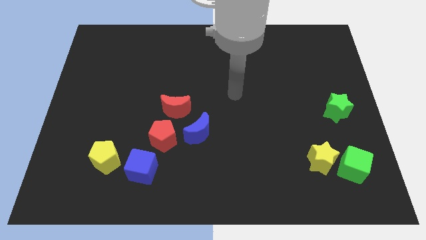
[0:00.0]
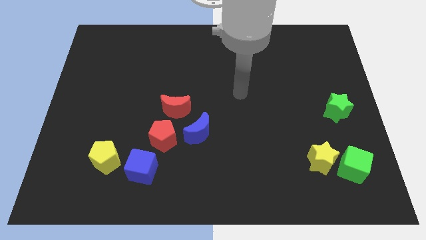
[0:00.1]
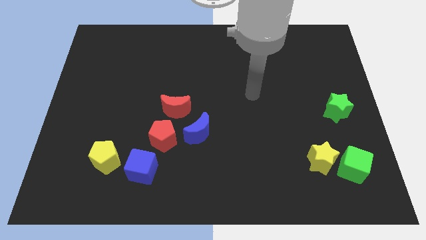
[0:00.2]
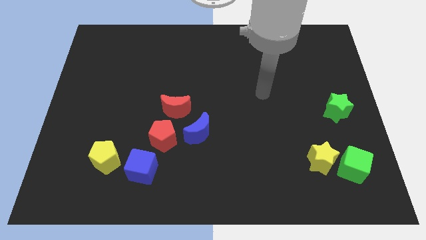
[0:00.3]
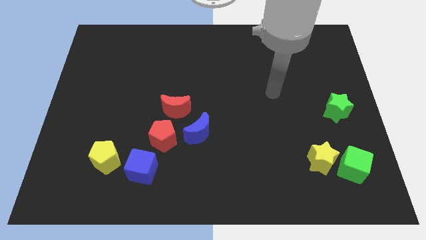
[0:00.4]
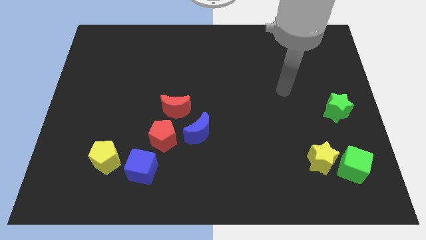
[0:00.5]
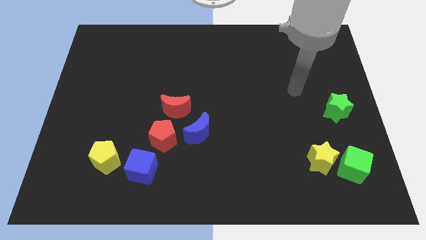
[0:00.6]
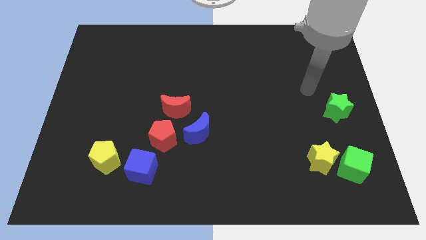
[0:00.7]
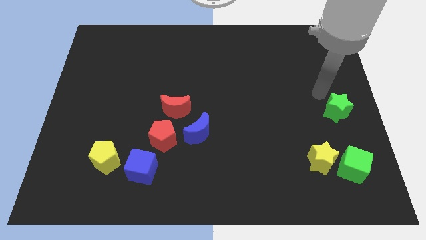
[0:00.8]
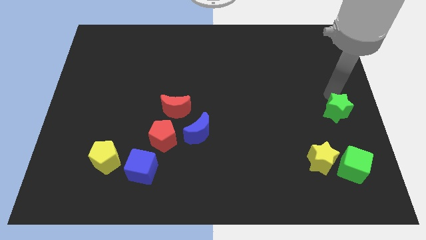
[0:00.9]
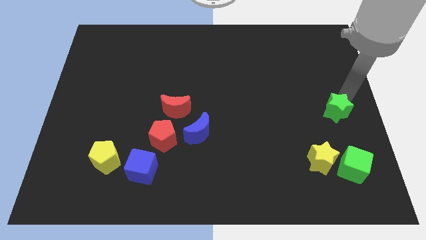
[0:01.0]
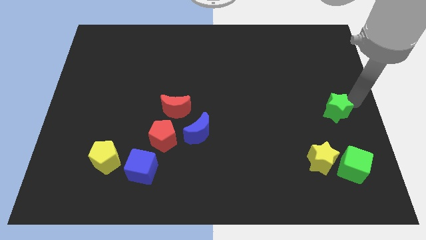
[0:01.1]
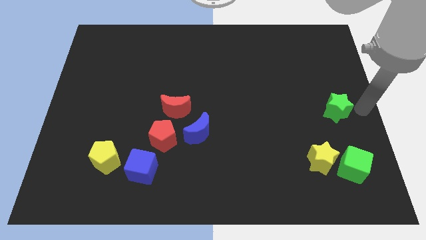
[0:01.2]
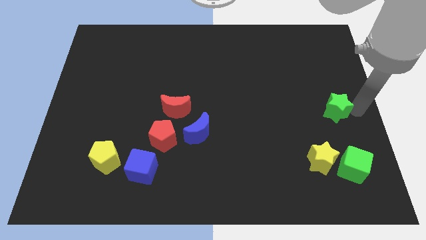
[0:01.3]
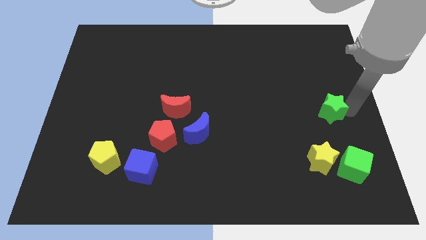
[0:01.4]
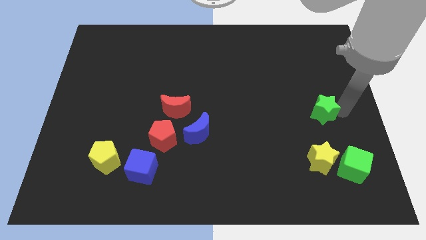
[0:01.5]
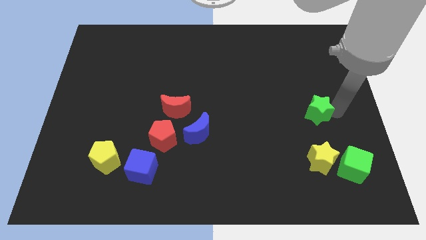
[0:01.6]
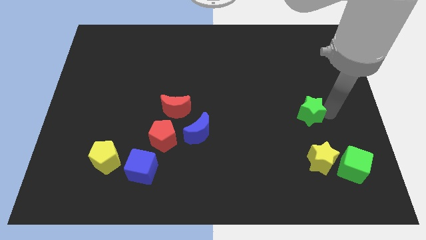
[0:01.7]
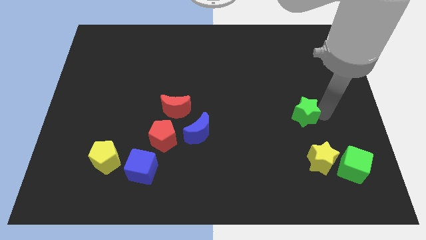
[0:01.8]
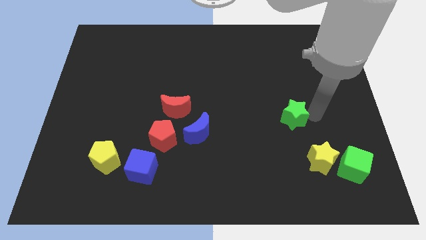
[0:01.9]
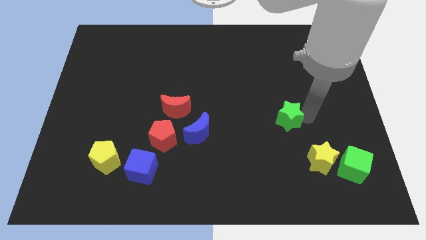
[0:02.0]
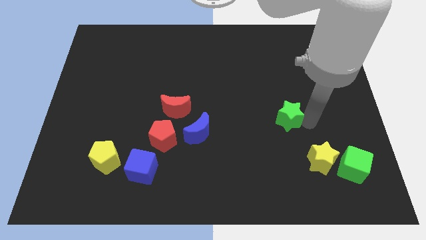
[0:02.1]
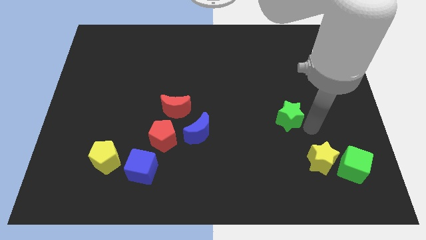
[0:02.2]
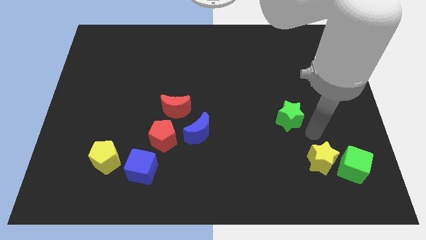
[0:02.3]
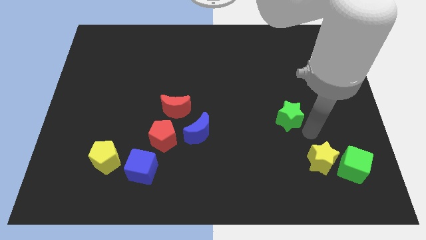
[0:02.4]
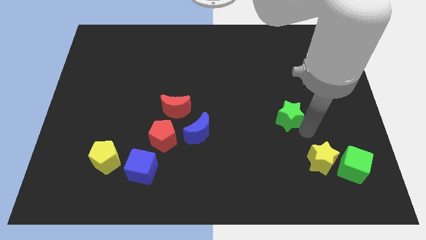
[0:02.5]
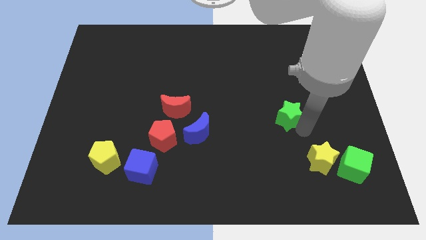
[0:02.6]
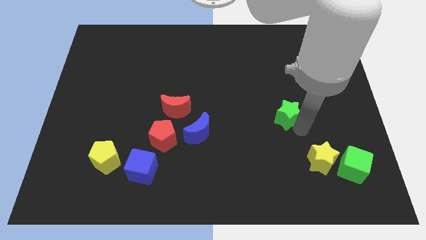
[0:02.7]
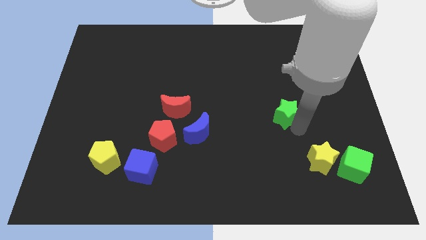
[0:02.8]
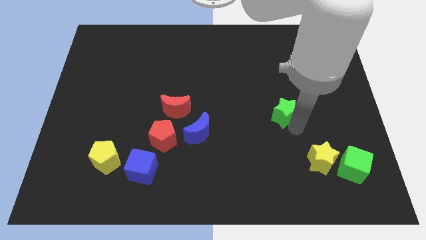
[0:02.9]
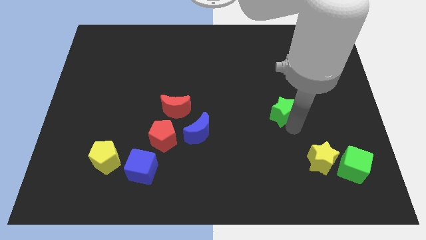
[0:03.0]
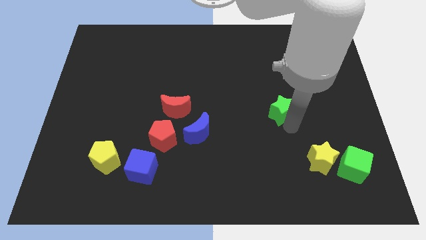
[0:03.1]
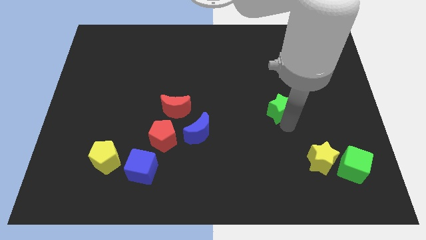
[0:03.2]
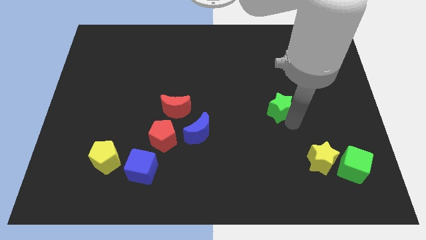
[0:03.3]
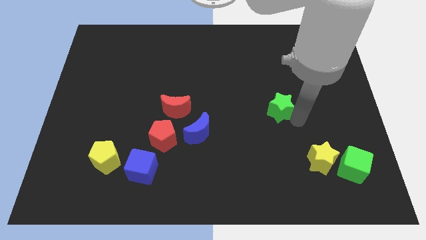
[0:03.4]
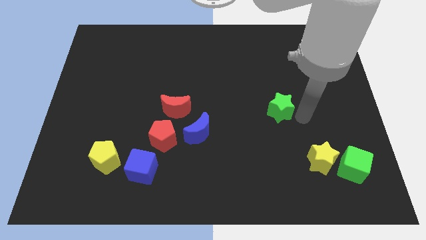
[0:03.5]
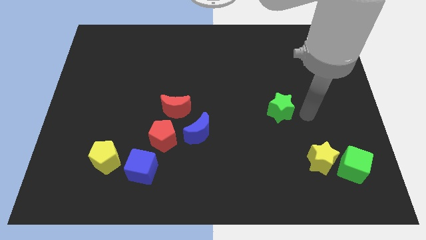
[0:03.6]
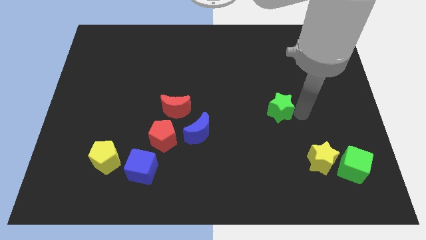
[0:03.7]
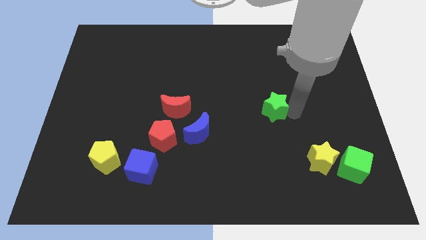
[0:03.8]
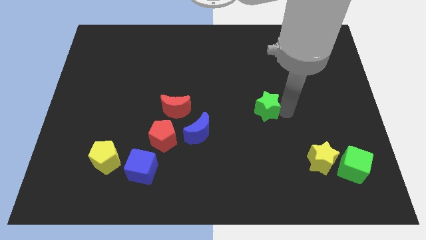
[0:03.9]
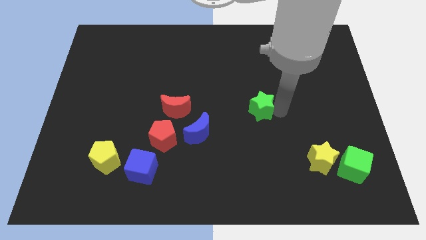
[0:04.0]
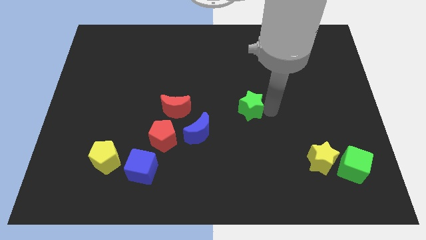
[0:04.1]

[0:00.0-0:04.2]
move the green star to the left

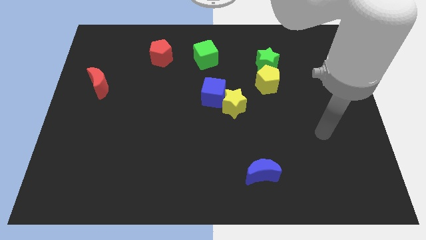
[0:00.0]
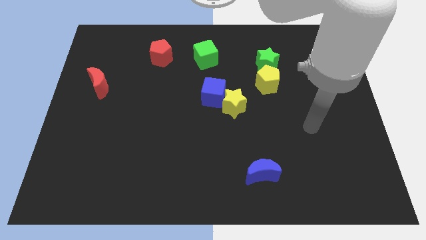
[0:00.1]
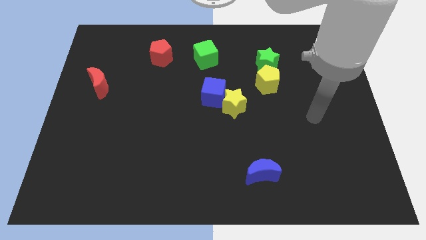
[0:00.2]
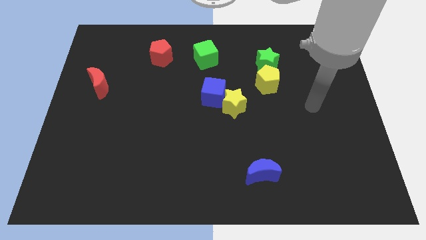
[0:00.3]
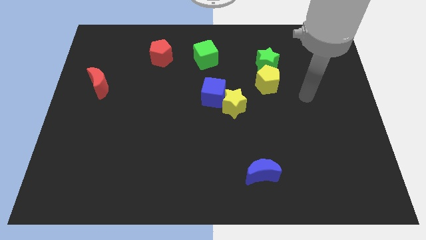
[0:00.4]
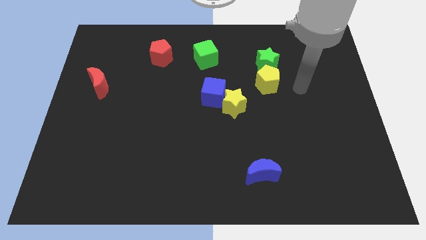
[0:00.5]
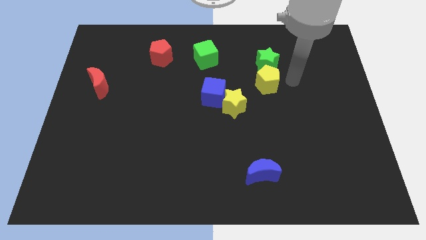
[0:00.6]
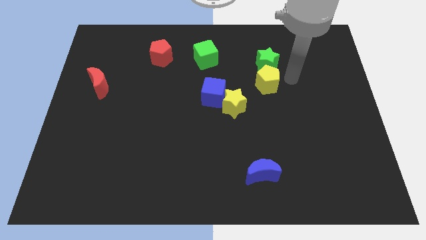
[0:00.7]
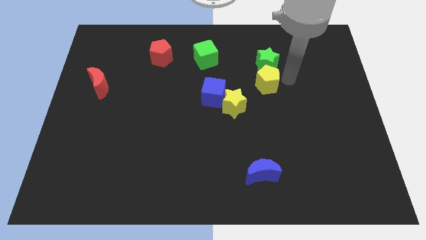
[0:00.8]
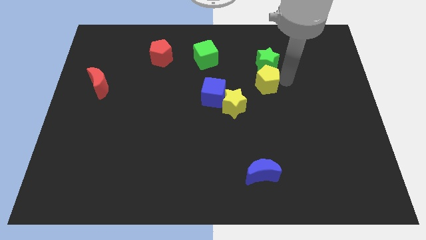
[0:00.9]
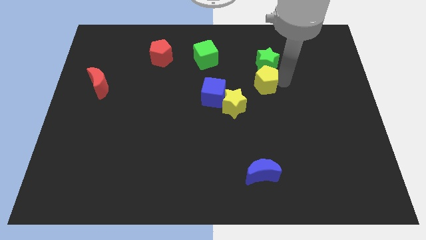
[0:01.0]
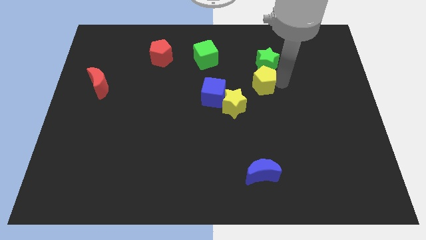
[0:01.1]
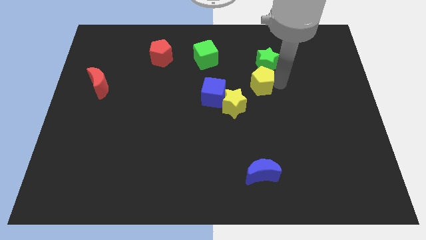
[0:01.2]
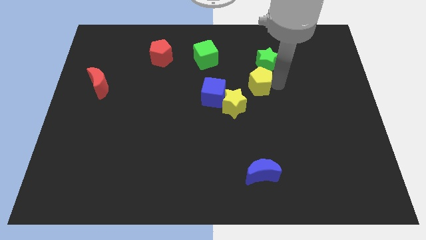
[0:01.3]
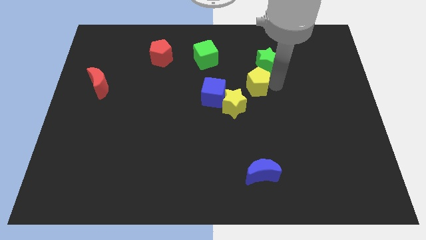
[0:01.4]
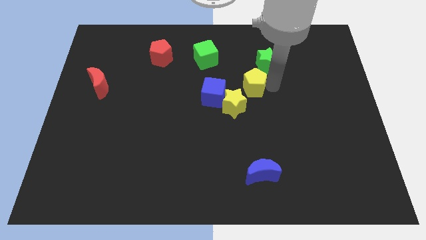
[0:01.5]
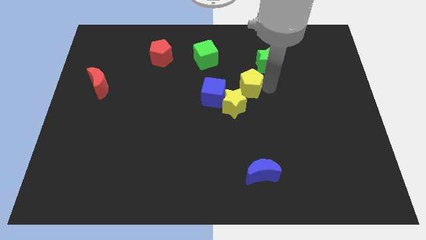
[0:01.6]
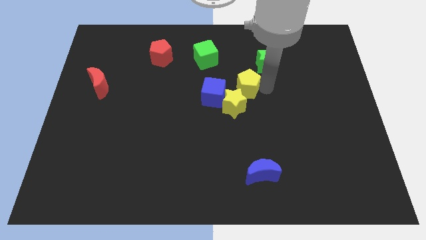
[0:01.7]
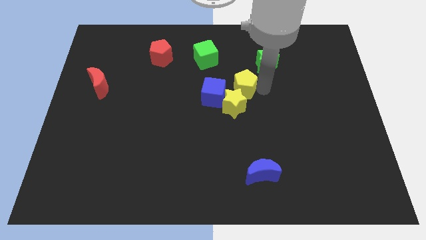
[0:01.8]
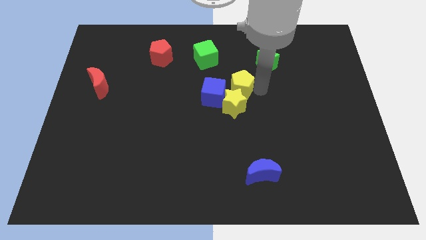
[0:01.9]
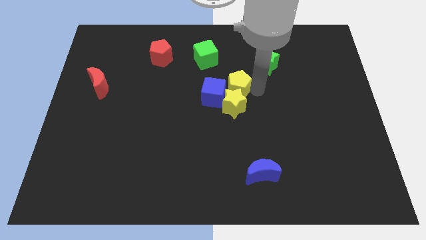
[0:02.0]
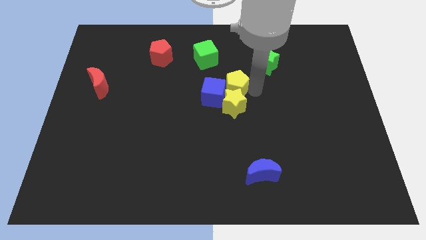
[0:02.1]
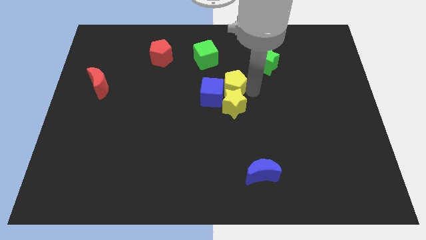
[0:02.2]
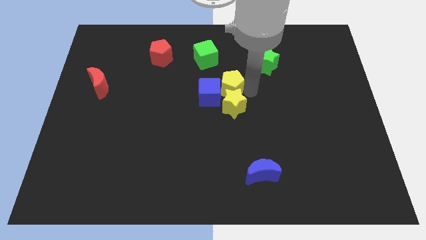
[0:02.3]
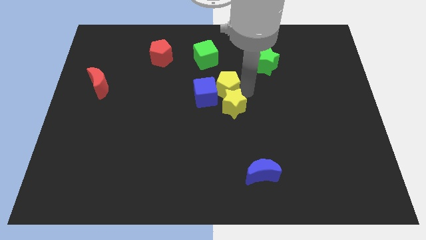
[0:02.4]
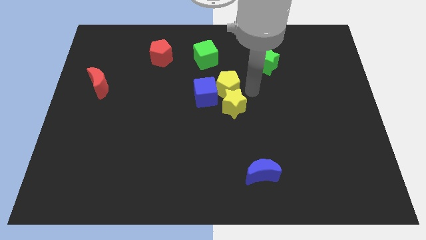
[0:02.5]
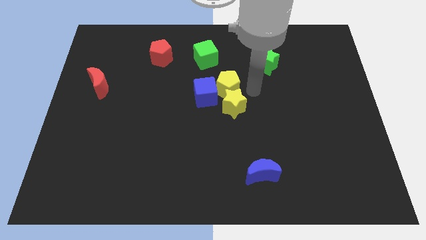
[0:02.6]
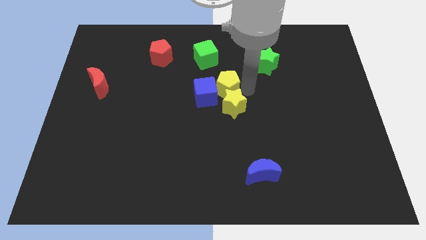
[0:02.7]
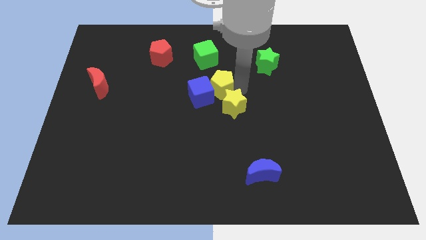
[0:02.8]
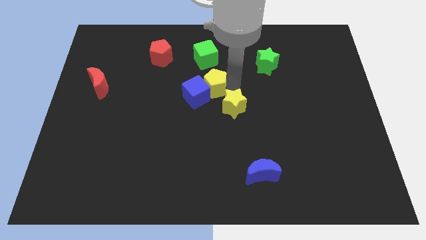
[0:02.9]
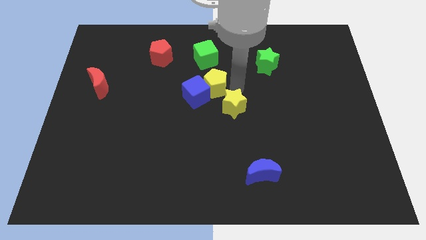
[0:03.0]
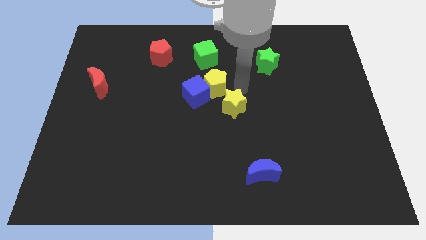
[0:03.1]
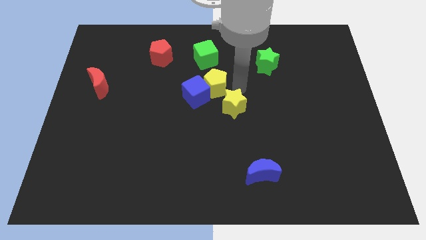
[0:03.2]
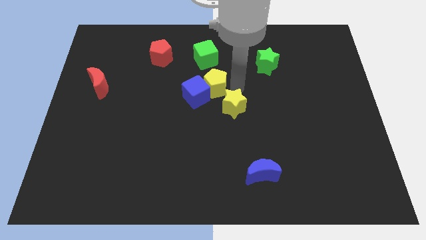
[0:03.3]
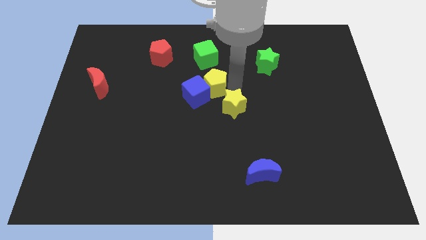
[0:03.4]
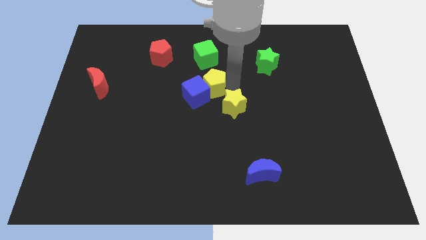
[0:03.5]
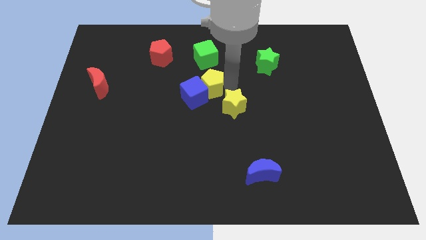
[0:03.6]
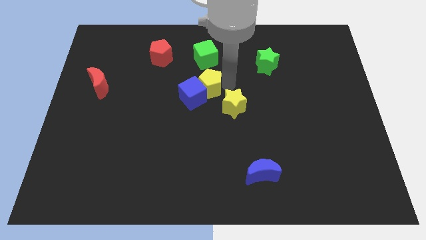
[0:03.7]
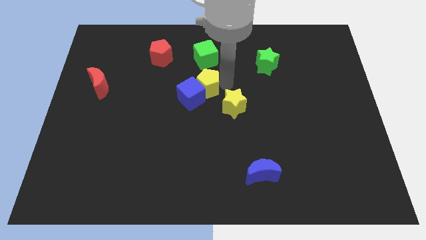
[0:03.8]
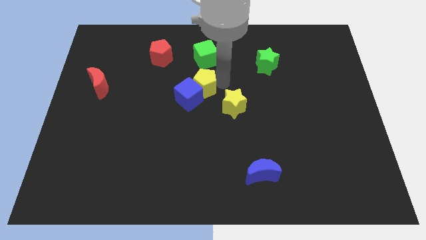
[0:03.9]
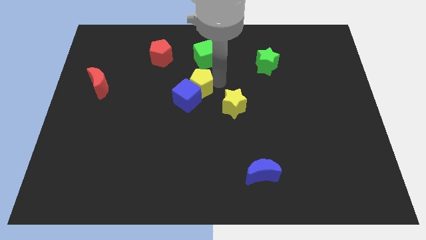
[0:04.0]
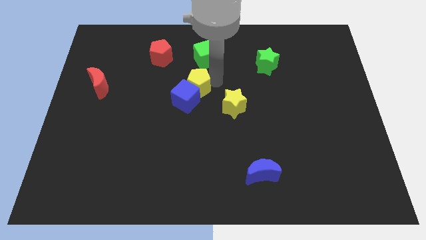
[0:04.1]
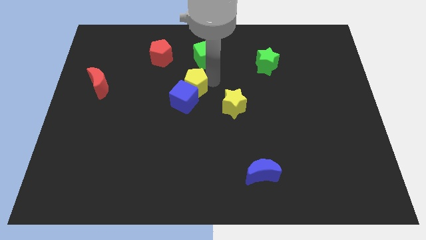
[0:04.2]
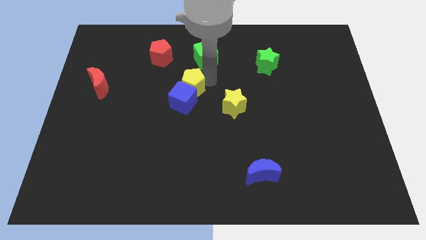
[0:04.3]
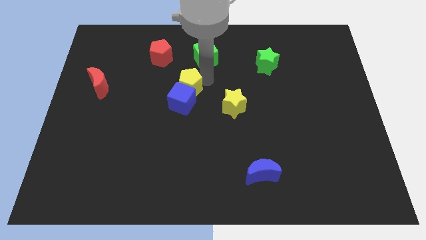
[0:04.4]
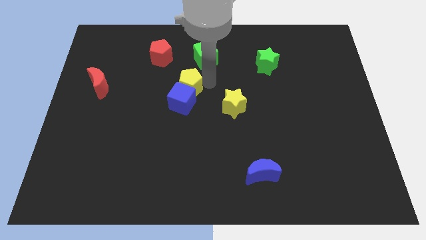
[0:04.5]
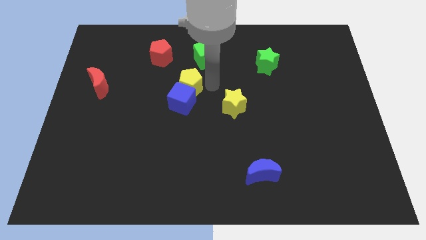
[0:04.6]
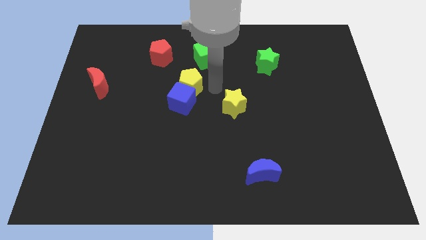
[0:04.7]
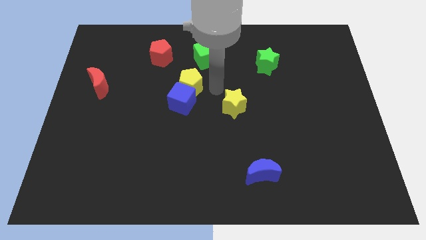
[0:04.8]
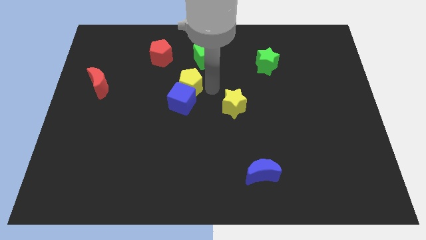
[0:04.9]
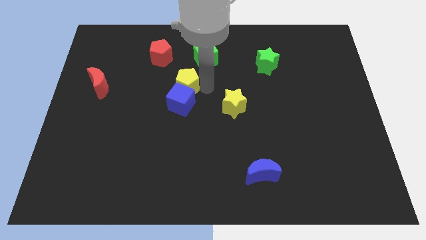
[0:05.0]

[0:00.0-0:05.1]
slide the yellow pentagon left
